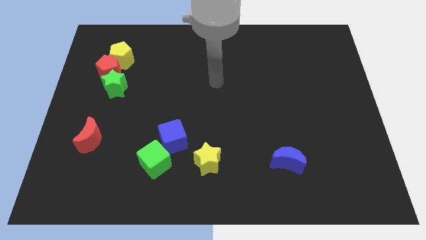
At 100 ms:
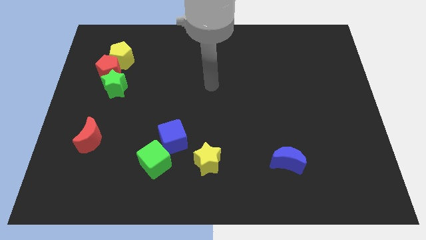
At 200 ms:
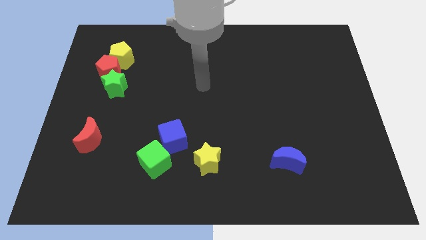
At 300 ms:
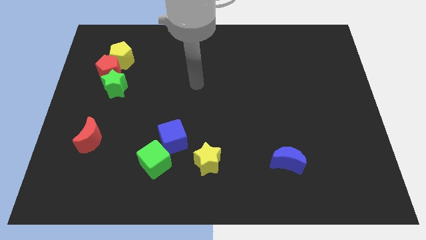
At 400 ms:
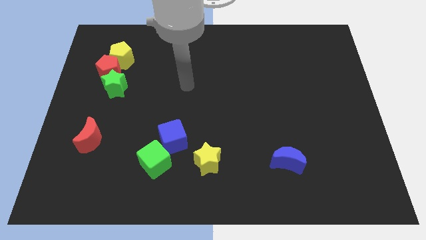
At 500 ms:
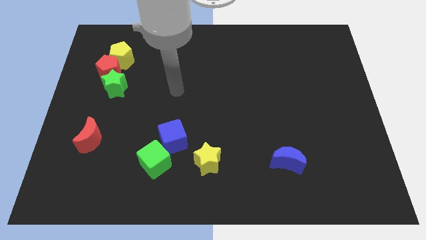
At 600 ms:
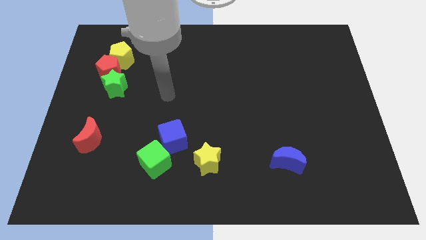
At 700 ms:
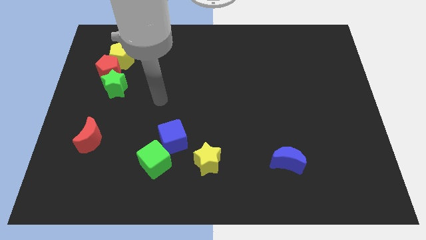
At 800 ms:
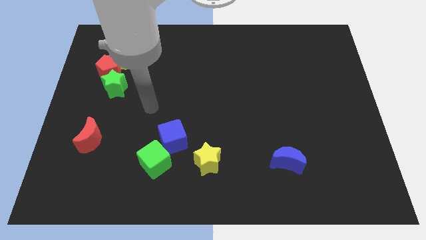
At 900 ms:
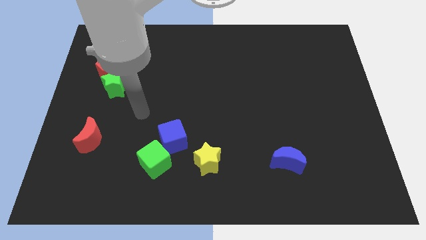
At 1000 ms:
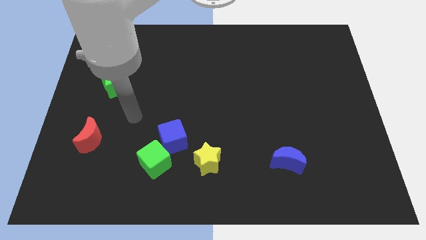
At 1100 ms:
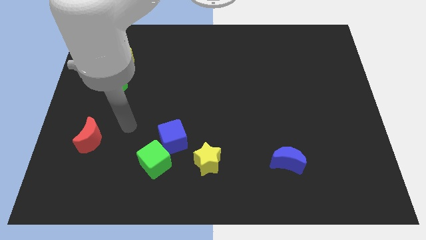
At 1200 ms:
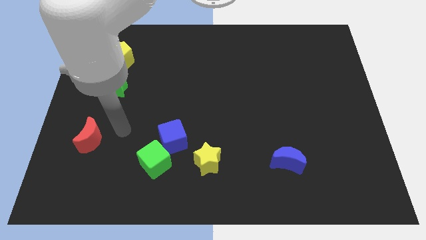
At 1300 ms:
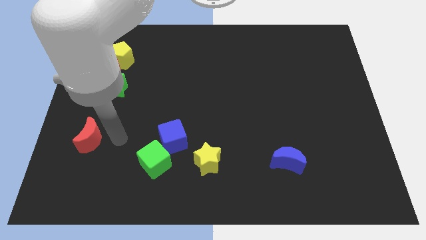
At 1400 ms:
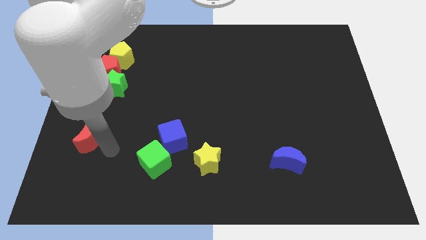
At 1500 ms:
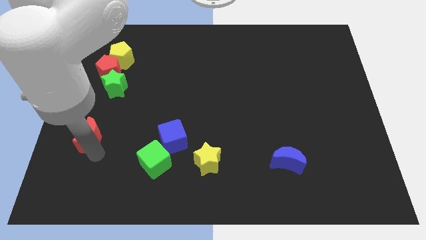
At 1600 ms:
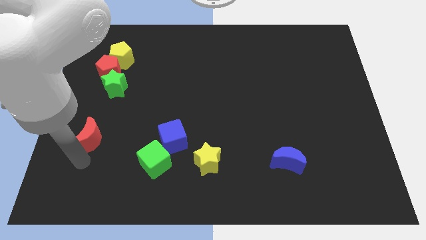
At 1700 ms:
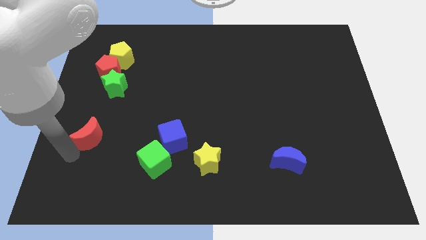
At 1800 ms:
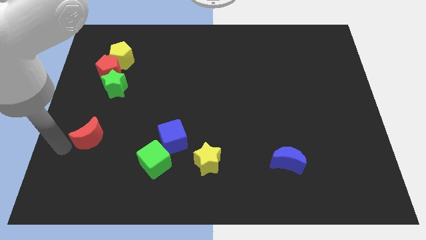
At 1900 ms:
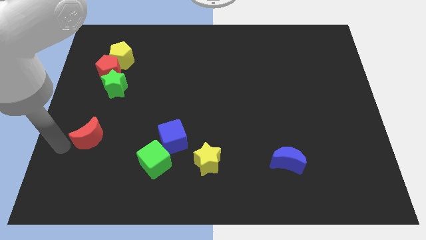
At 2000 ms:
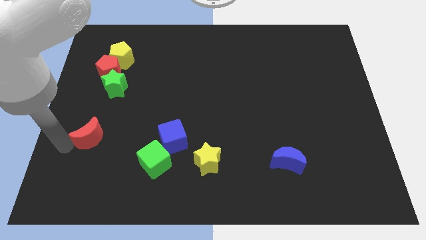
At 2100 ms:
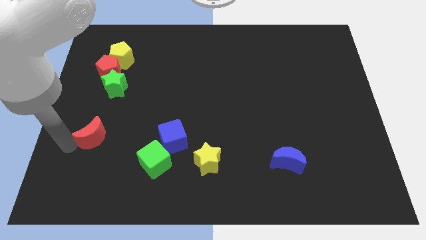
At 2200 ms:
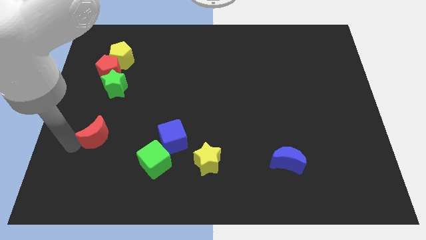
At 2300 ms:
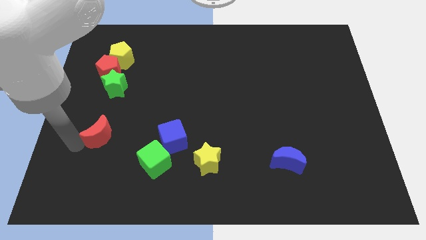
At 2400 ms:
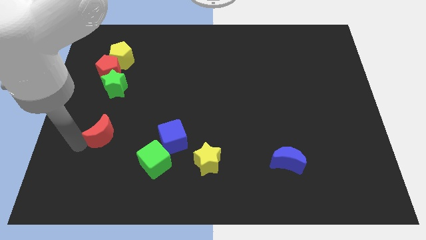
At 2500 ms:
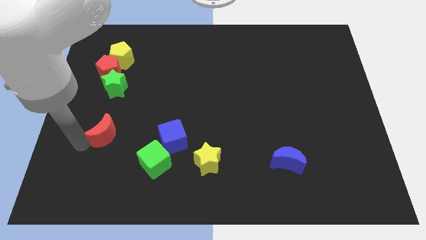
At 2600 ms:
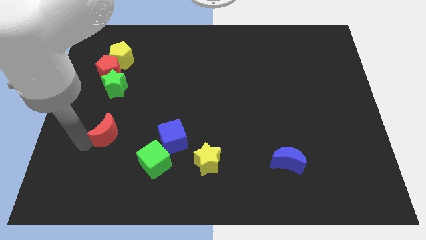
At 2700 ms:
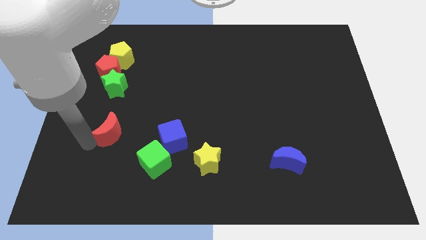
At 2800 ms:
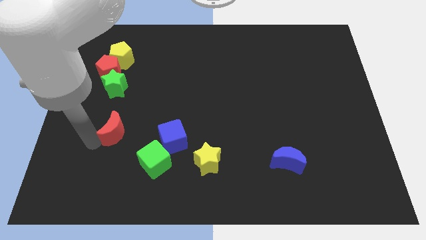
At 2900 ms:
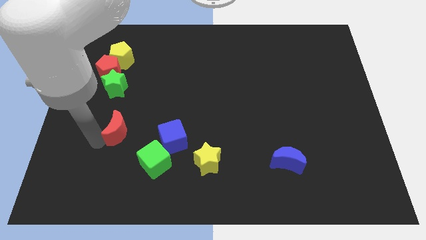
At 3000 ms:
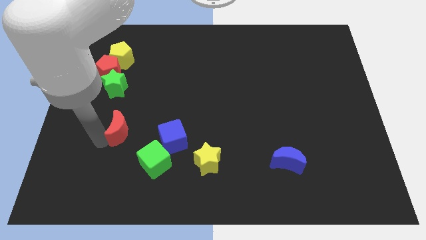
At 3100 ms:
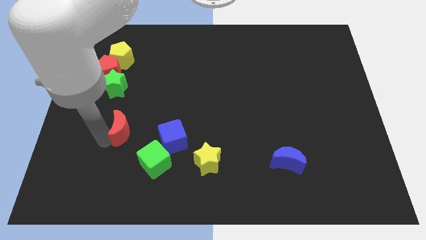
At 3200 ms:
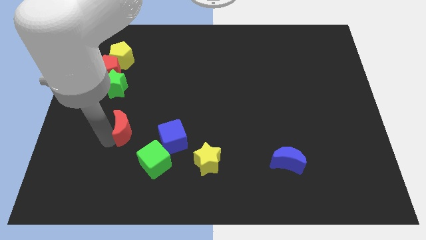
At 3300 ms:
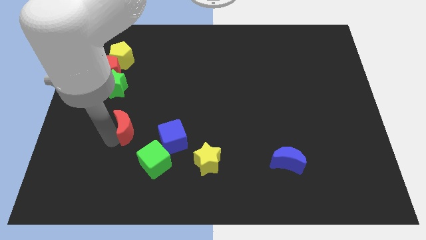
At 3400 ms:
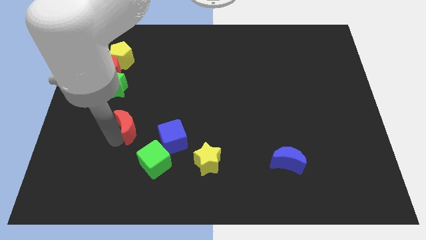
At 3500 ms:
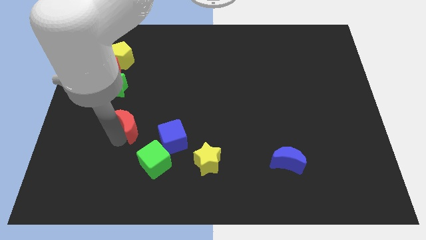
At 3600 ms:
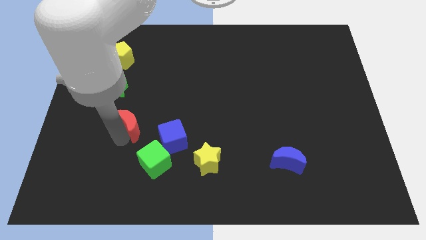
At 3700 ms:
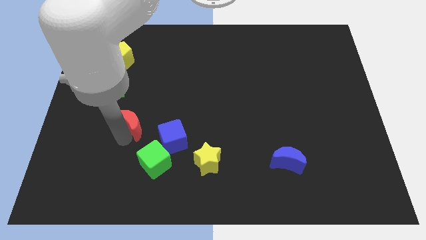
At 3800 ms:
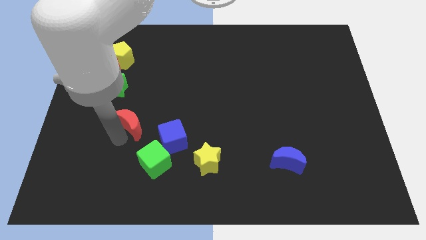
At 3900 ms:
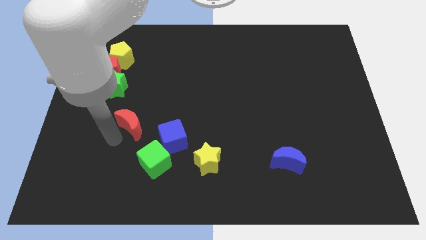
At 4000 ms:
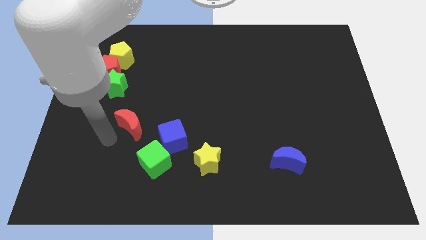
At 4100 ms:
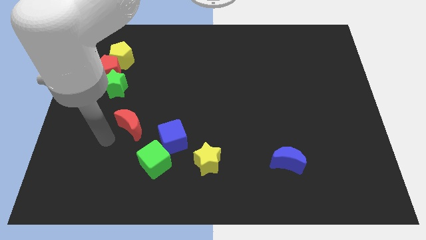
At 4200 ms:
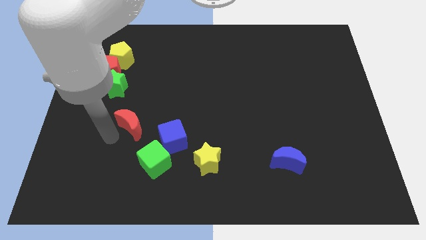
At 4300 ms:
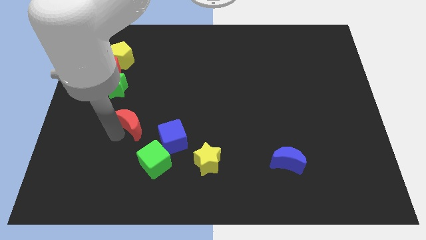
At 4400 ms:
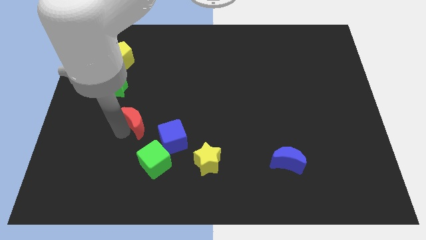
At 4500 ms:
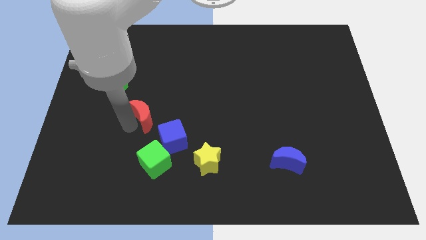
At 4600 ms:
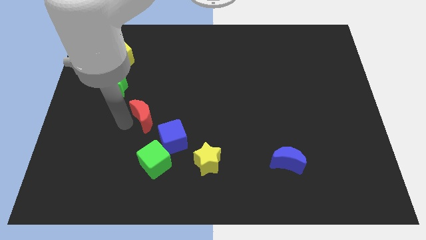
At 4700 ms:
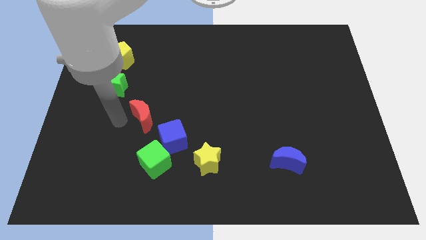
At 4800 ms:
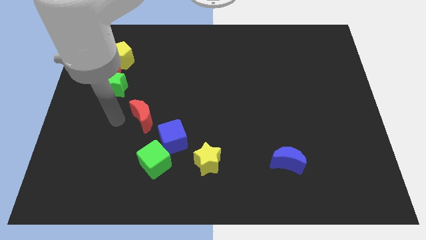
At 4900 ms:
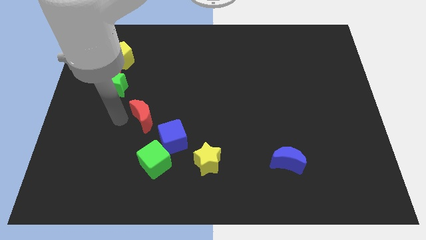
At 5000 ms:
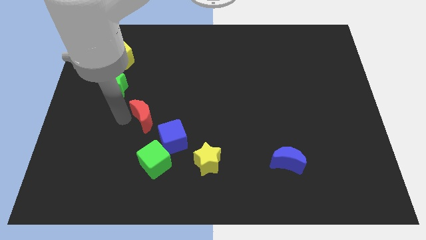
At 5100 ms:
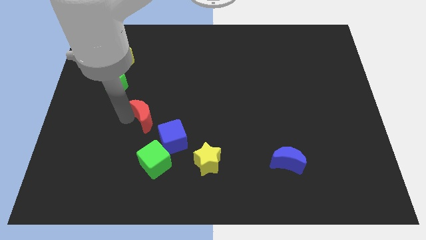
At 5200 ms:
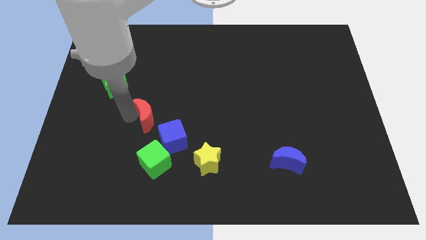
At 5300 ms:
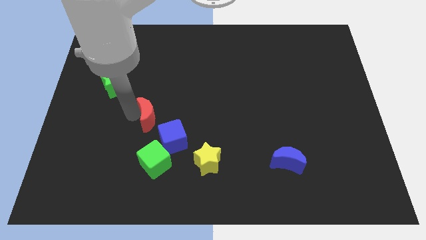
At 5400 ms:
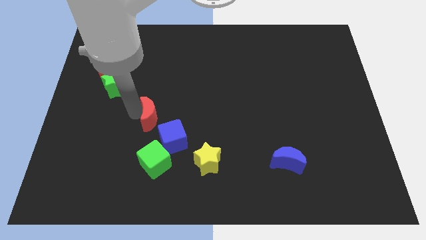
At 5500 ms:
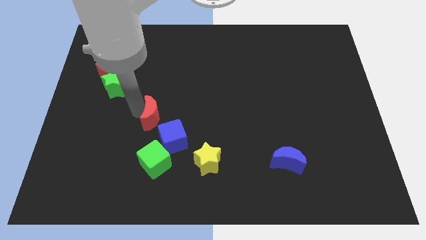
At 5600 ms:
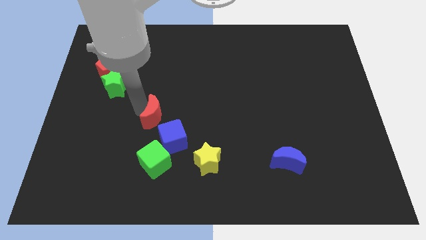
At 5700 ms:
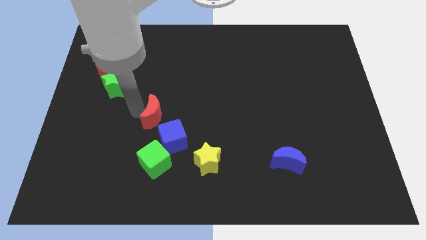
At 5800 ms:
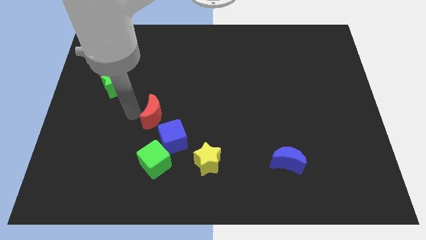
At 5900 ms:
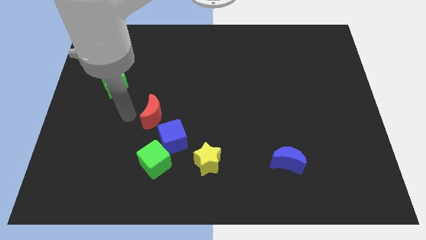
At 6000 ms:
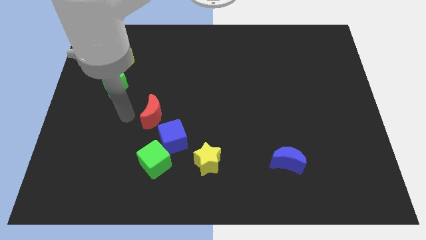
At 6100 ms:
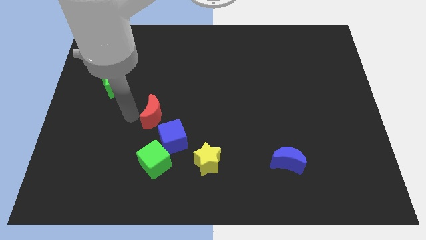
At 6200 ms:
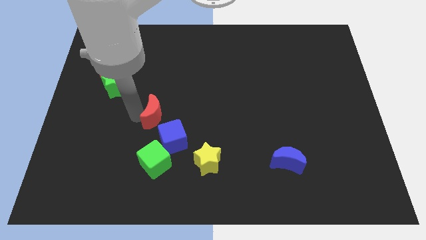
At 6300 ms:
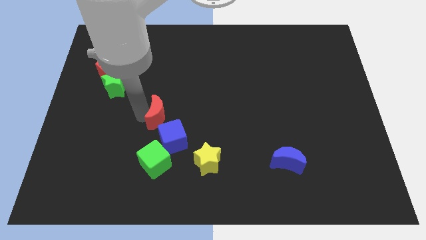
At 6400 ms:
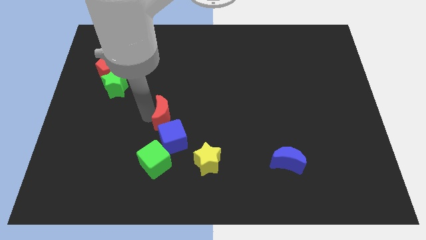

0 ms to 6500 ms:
move the red moon to the center of the board
